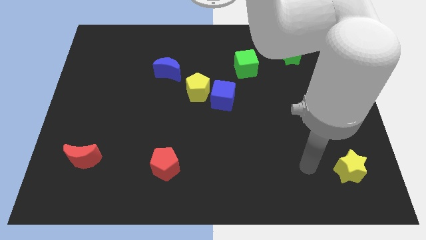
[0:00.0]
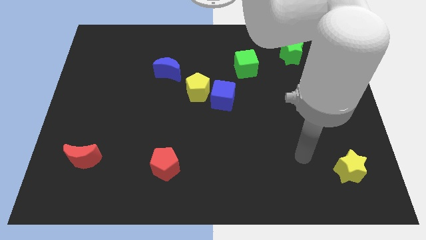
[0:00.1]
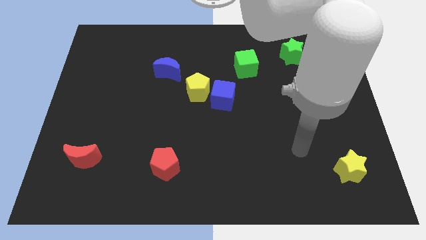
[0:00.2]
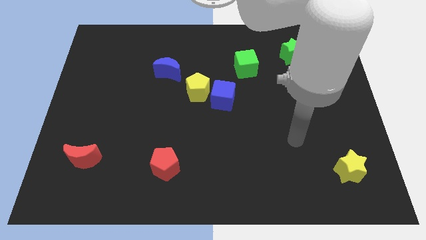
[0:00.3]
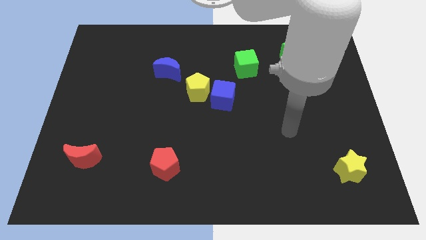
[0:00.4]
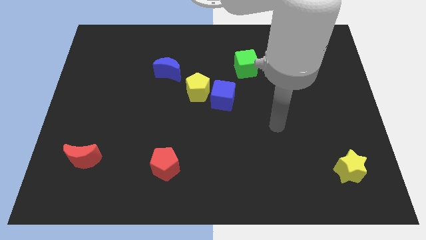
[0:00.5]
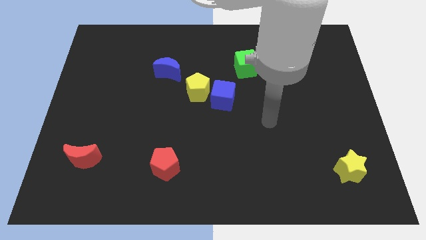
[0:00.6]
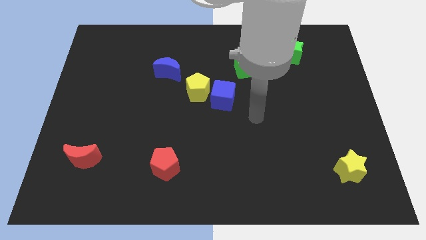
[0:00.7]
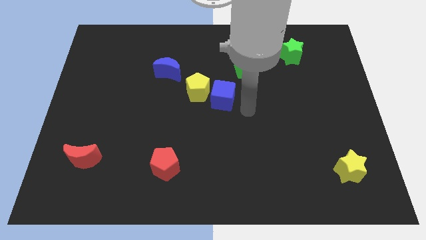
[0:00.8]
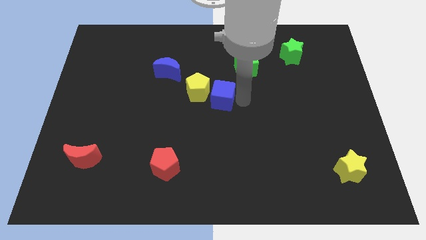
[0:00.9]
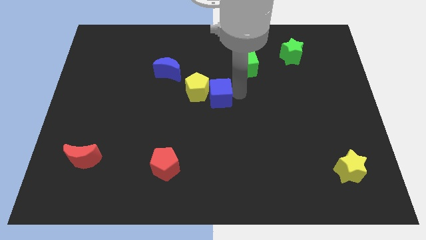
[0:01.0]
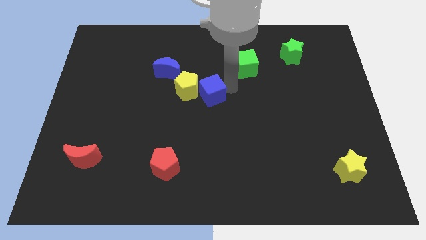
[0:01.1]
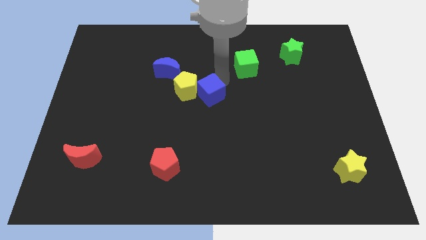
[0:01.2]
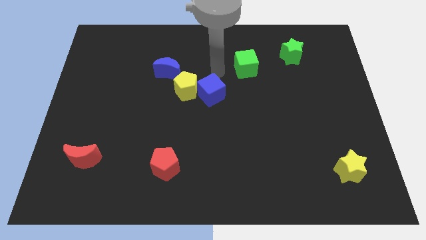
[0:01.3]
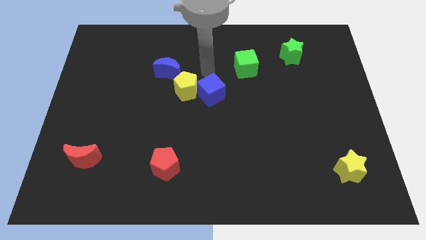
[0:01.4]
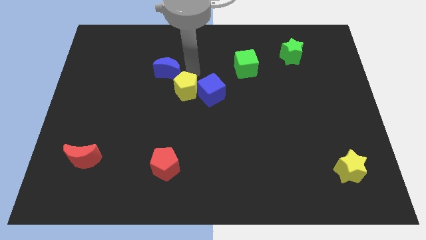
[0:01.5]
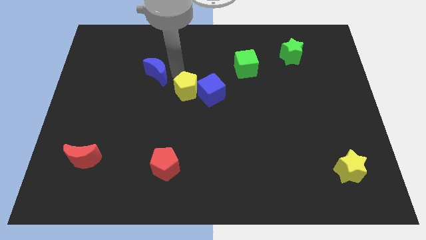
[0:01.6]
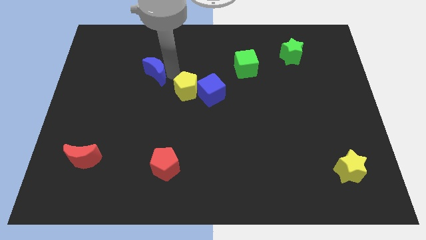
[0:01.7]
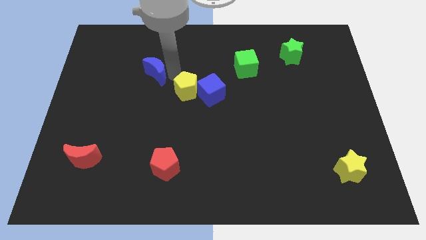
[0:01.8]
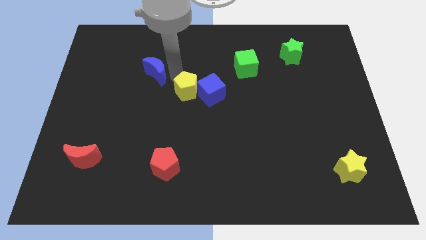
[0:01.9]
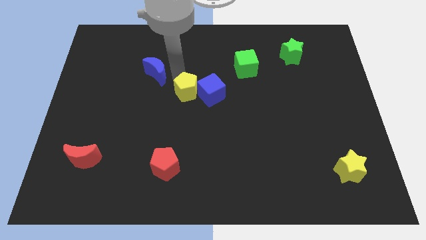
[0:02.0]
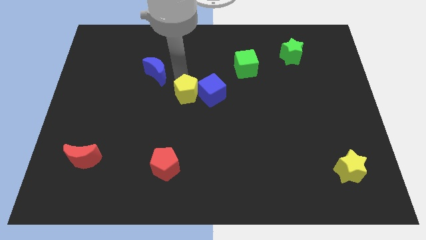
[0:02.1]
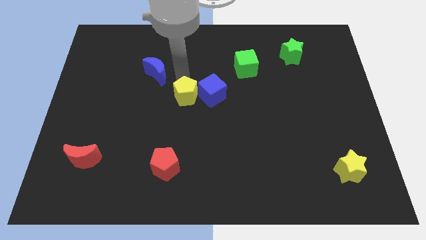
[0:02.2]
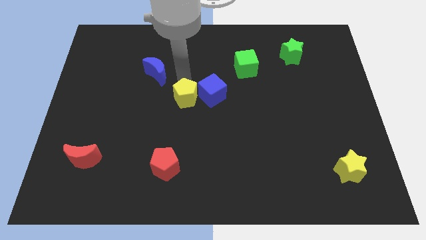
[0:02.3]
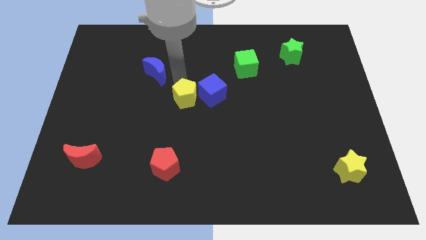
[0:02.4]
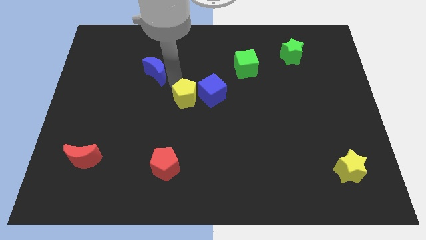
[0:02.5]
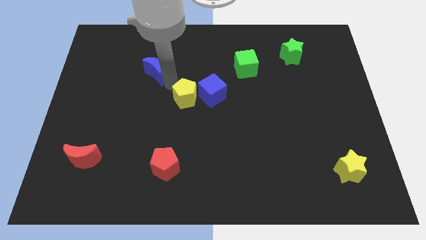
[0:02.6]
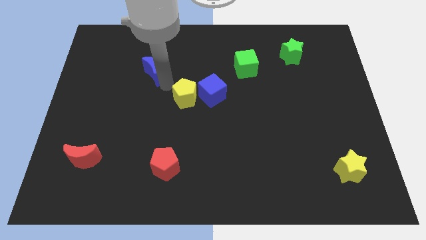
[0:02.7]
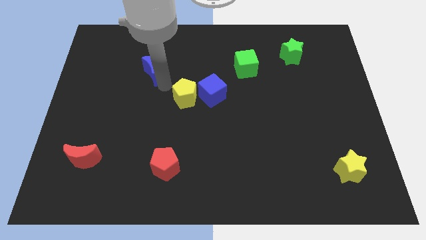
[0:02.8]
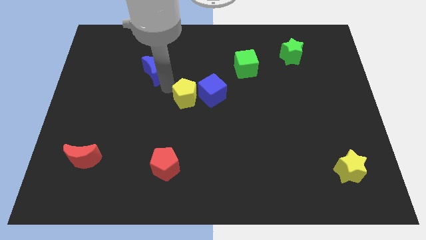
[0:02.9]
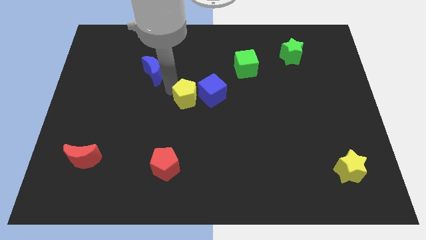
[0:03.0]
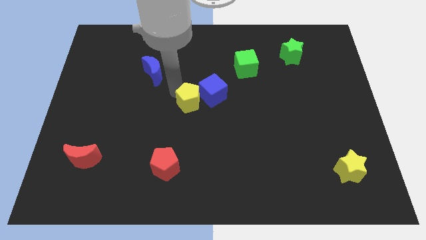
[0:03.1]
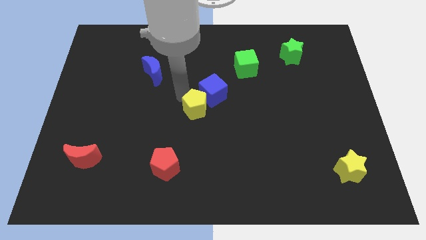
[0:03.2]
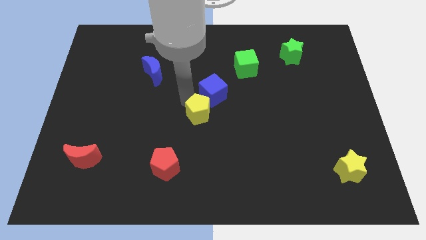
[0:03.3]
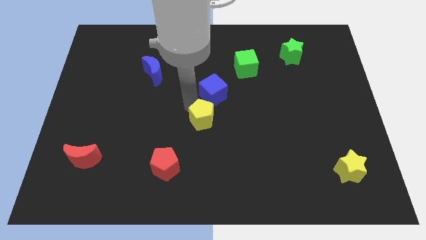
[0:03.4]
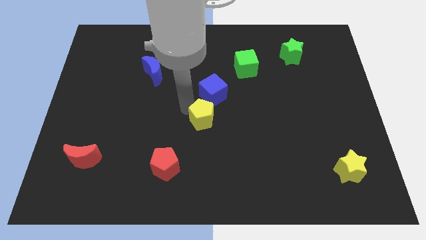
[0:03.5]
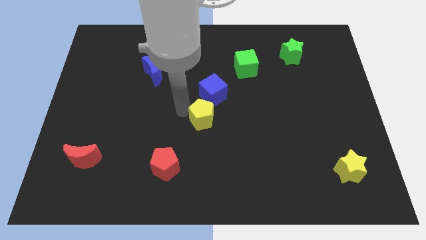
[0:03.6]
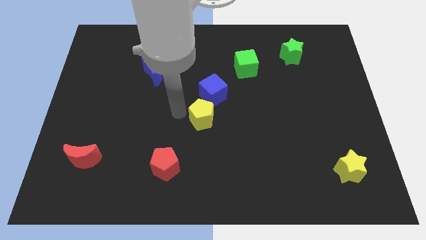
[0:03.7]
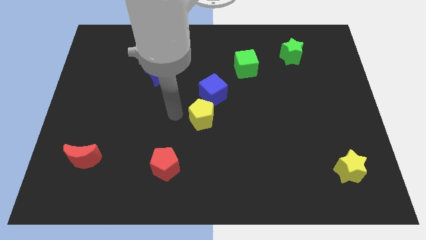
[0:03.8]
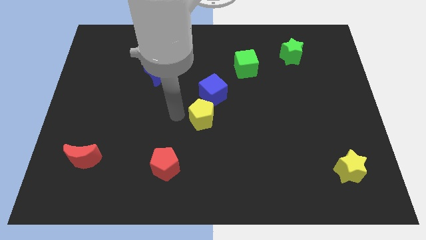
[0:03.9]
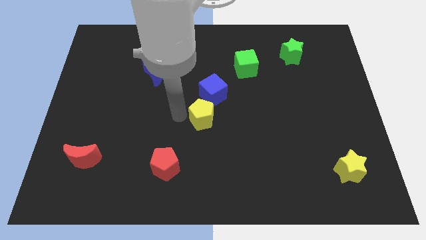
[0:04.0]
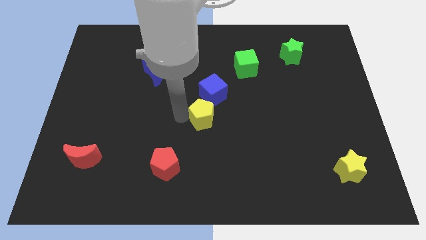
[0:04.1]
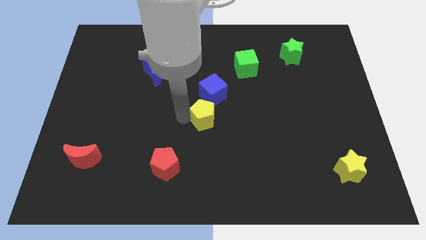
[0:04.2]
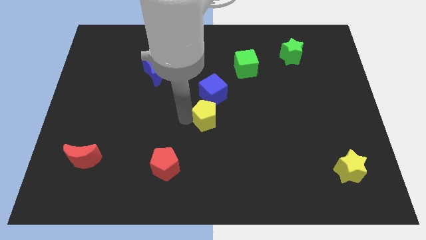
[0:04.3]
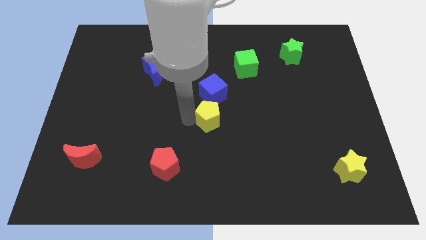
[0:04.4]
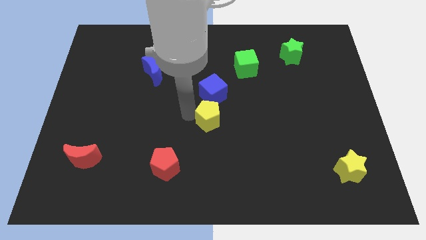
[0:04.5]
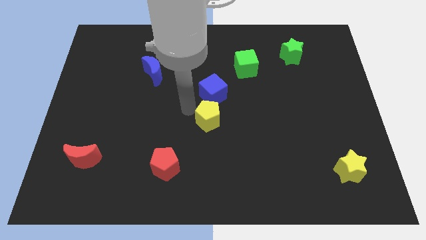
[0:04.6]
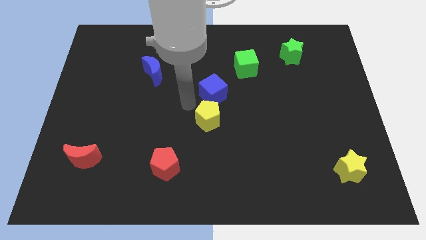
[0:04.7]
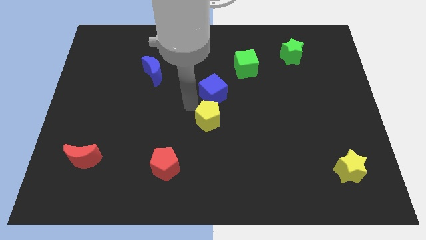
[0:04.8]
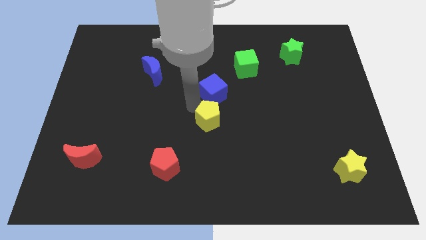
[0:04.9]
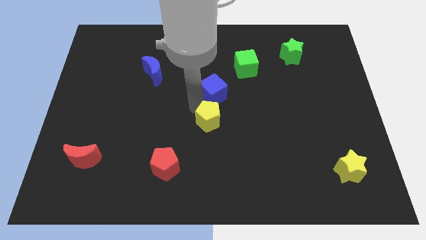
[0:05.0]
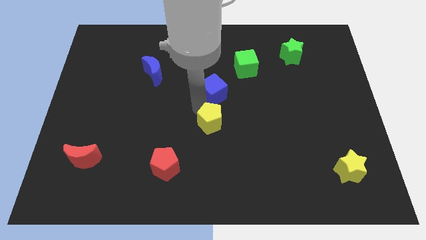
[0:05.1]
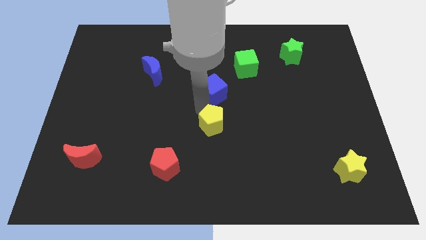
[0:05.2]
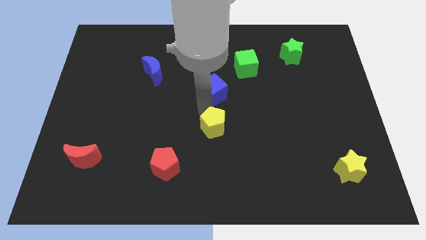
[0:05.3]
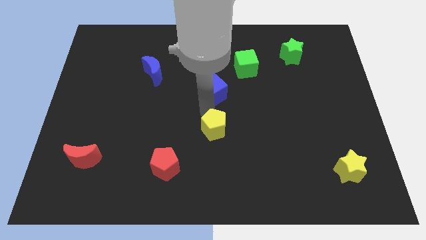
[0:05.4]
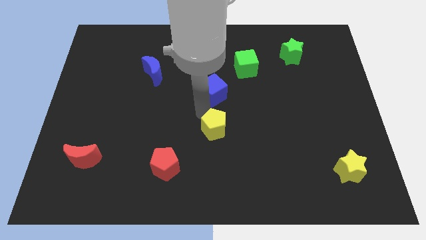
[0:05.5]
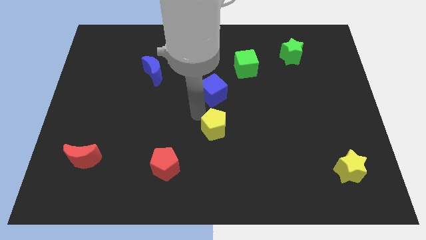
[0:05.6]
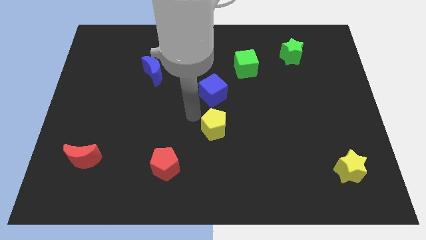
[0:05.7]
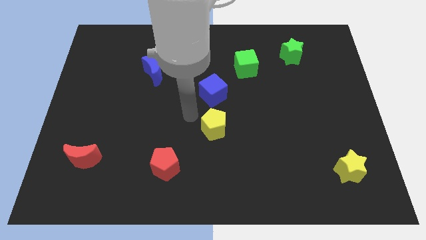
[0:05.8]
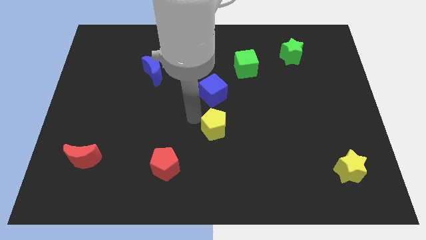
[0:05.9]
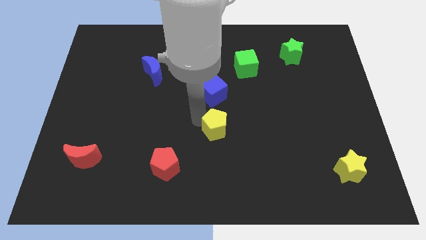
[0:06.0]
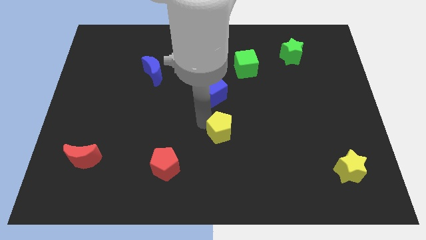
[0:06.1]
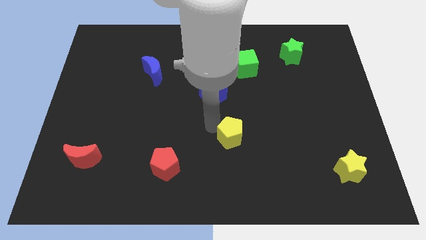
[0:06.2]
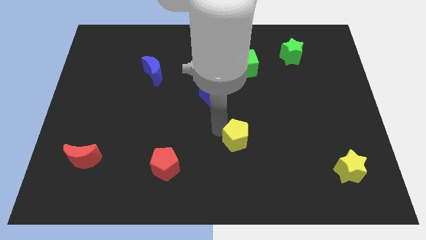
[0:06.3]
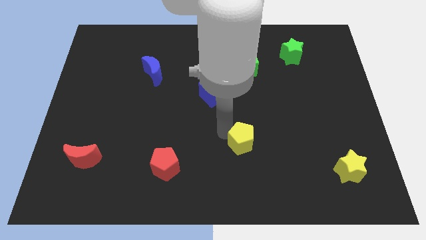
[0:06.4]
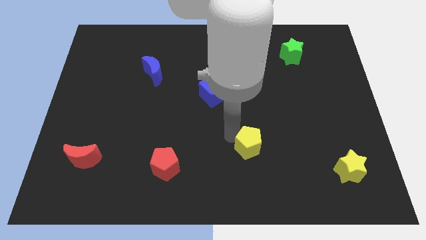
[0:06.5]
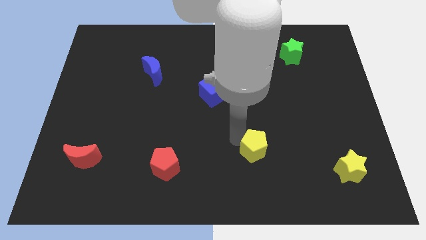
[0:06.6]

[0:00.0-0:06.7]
move the yellow pentagon downwards and to the right

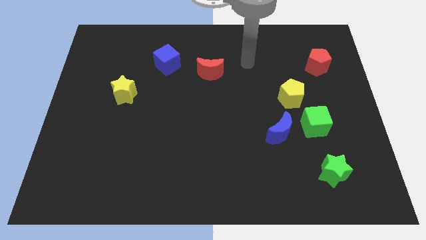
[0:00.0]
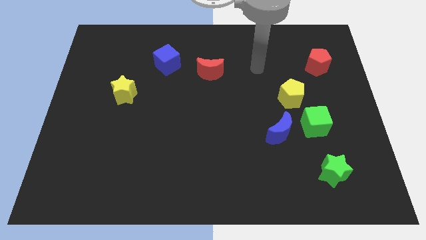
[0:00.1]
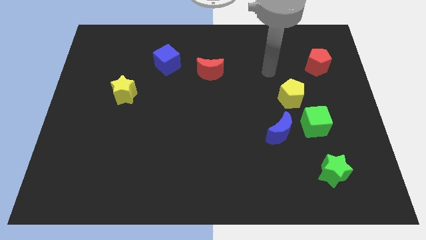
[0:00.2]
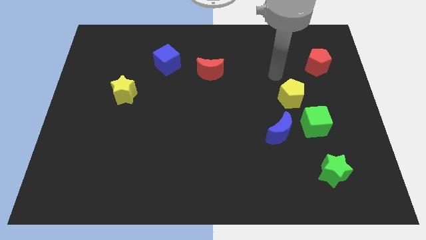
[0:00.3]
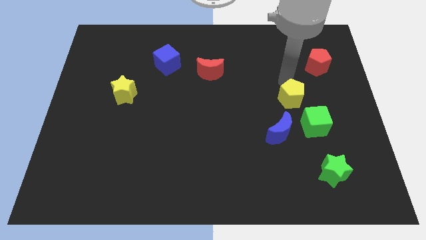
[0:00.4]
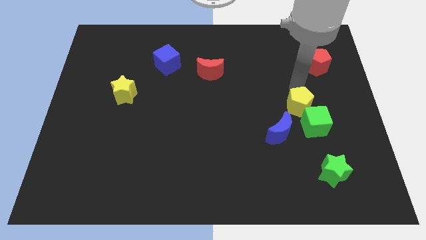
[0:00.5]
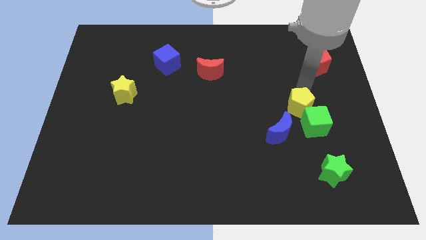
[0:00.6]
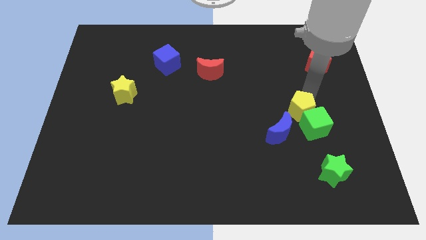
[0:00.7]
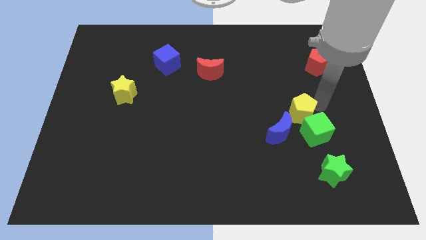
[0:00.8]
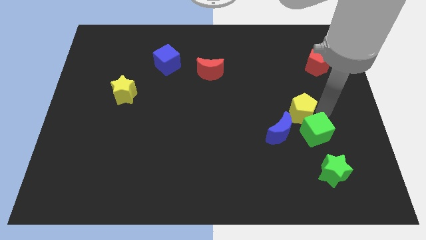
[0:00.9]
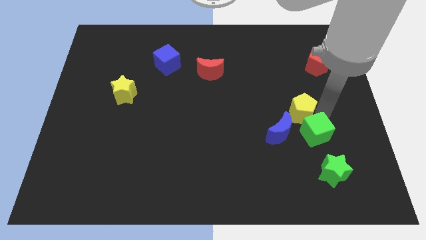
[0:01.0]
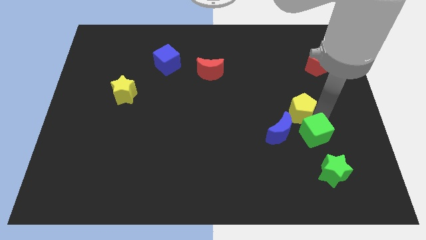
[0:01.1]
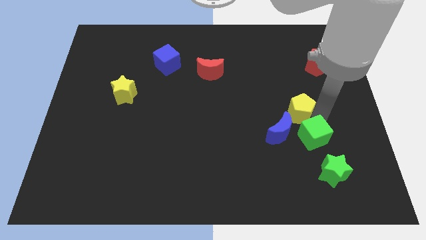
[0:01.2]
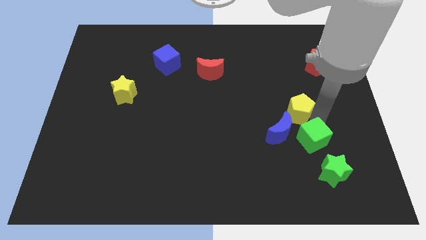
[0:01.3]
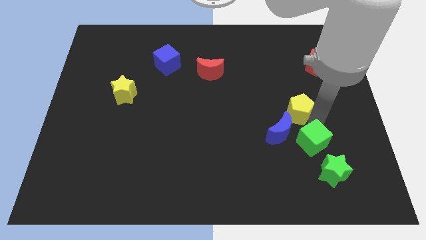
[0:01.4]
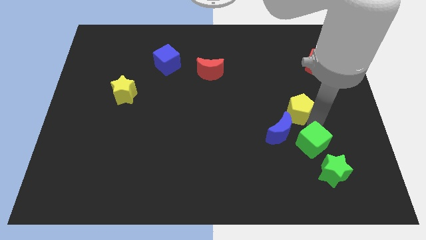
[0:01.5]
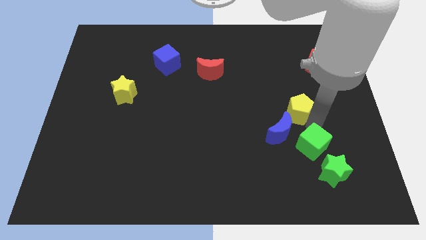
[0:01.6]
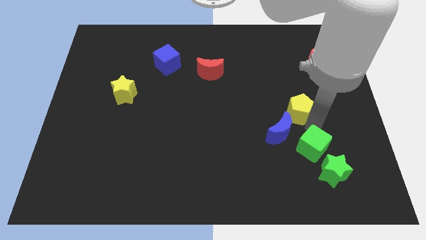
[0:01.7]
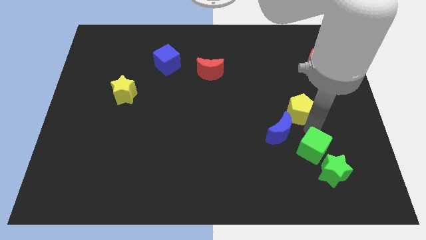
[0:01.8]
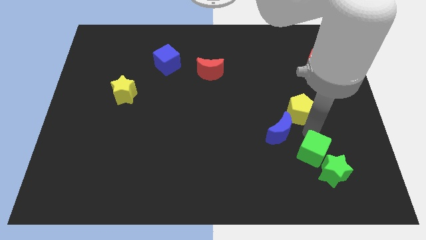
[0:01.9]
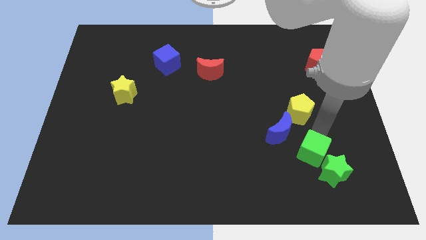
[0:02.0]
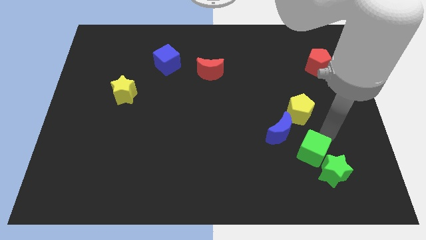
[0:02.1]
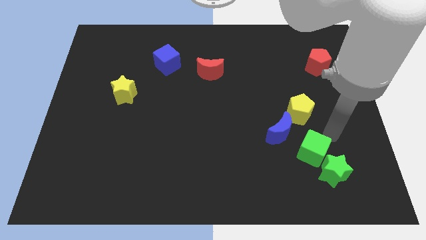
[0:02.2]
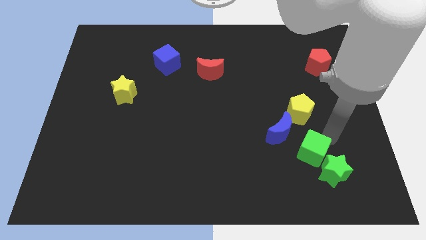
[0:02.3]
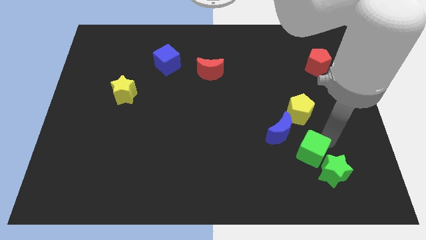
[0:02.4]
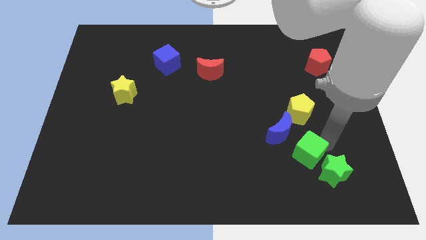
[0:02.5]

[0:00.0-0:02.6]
push the green cube diagonally downwards and left somewhat
